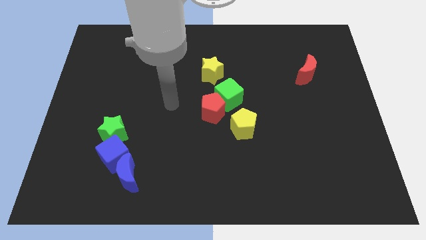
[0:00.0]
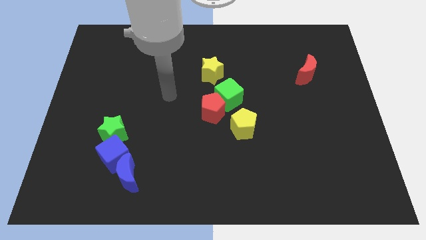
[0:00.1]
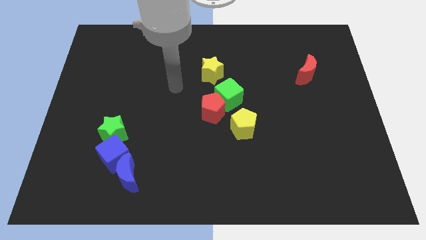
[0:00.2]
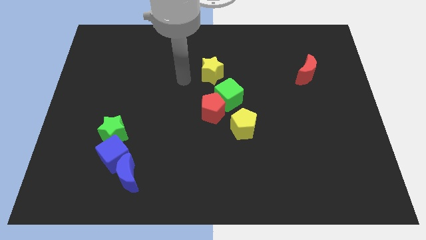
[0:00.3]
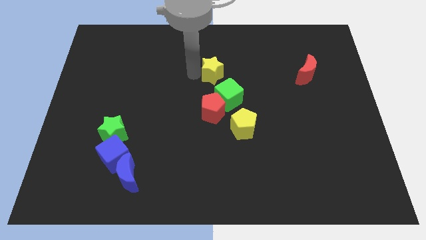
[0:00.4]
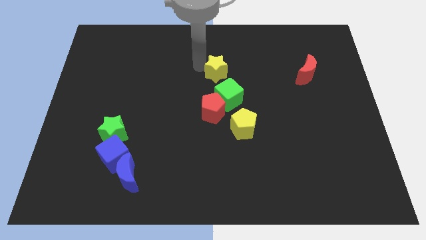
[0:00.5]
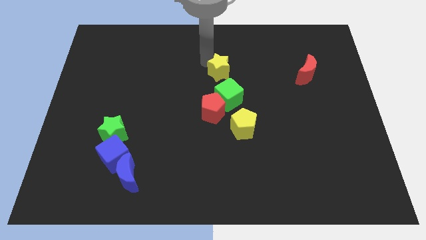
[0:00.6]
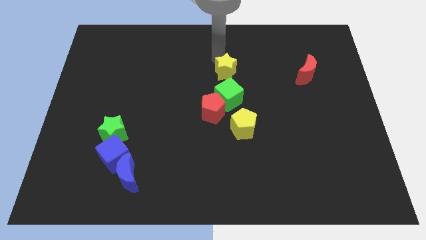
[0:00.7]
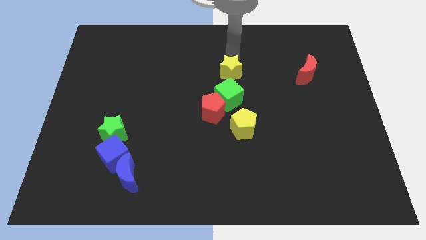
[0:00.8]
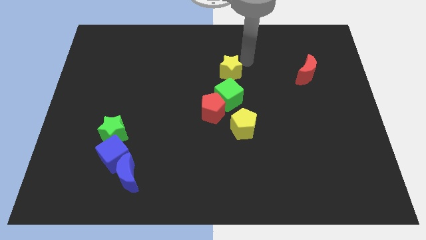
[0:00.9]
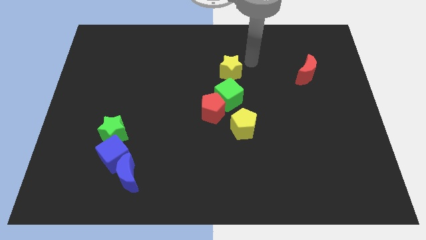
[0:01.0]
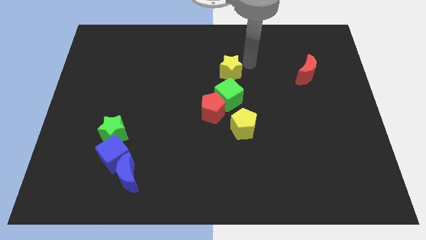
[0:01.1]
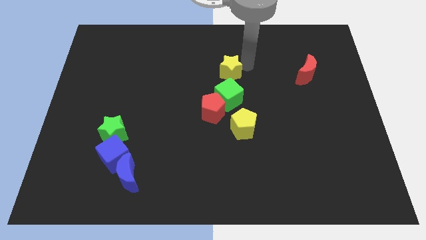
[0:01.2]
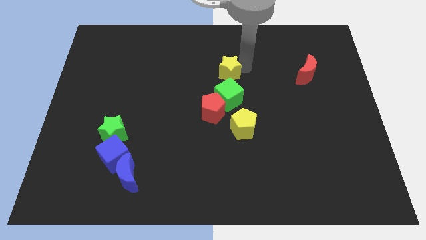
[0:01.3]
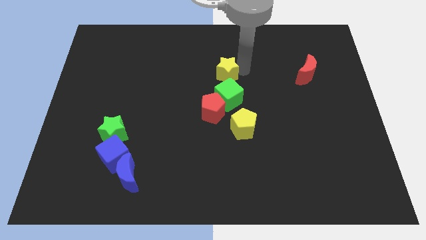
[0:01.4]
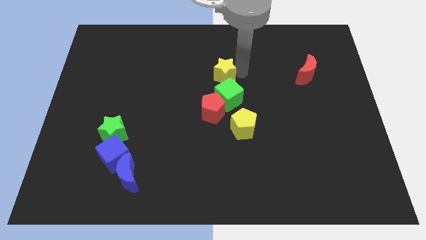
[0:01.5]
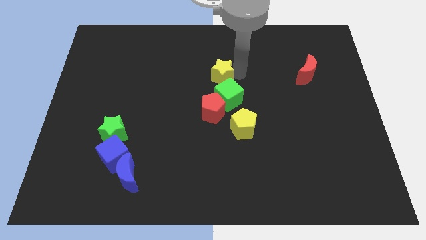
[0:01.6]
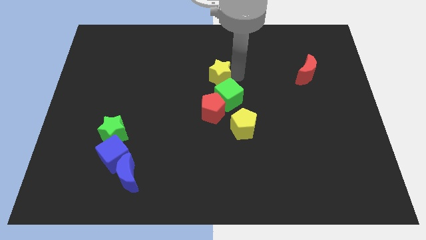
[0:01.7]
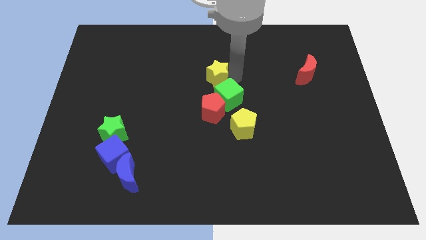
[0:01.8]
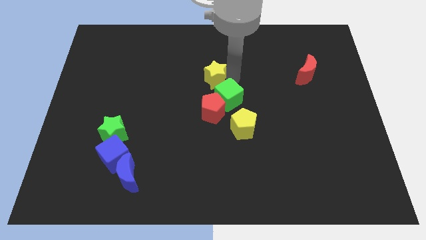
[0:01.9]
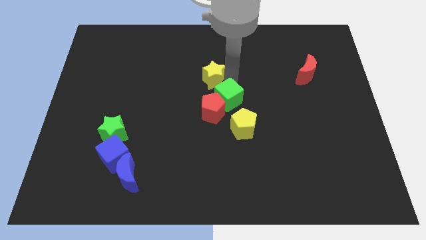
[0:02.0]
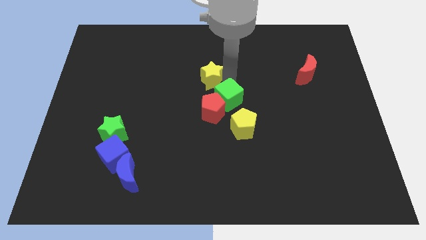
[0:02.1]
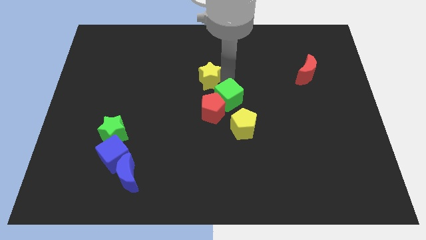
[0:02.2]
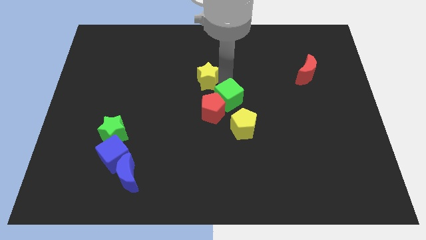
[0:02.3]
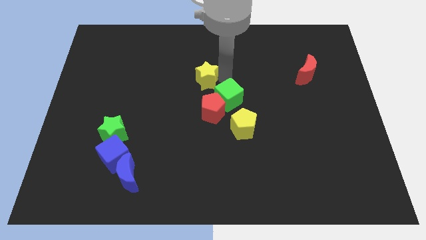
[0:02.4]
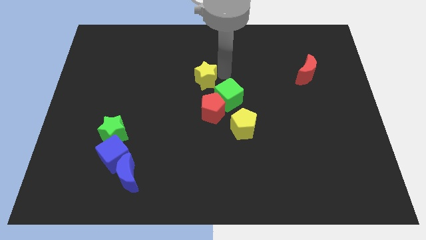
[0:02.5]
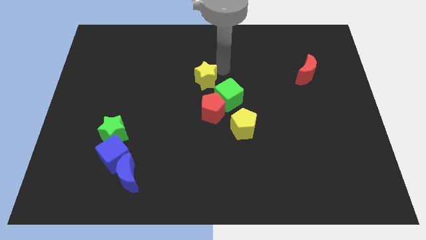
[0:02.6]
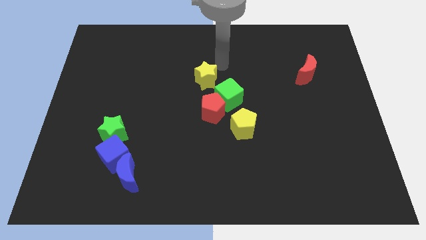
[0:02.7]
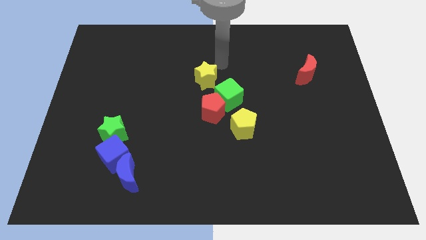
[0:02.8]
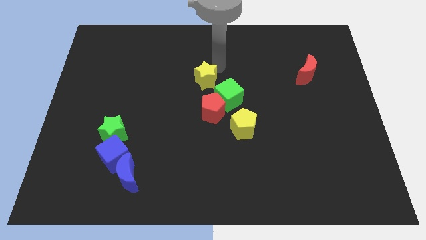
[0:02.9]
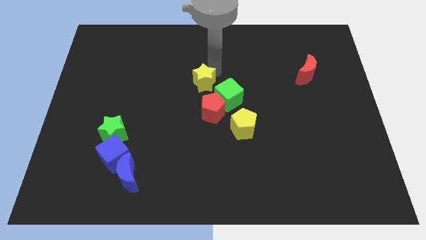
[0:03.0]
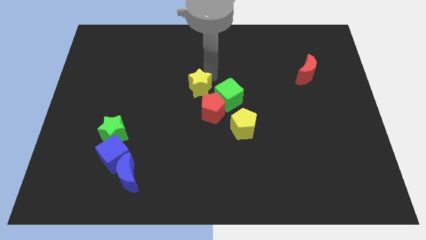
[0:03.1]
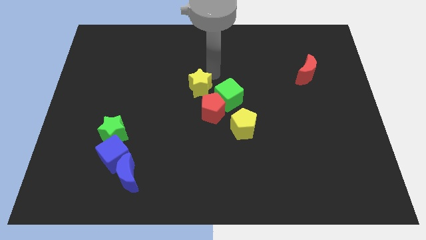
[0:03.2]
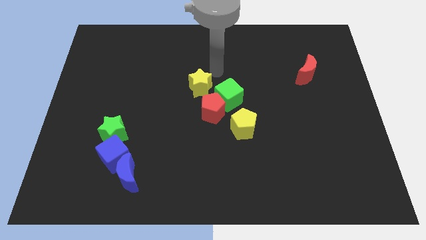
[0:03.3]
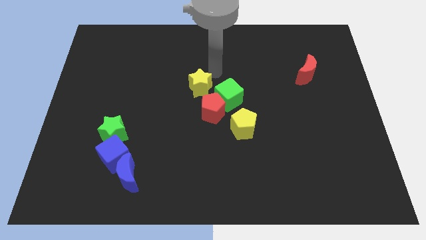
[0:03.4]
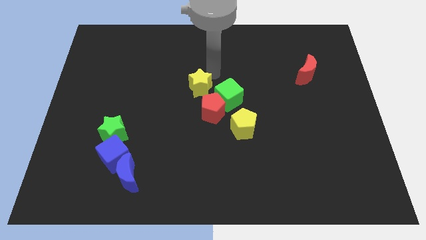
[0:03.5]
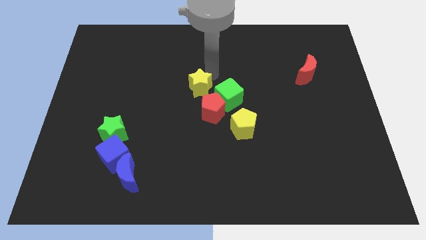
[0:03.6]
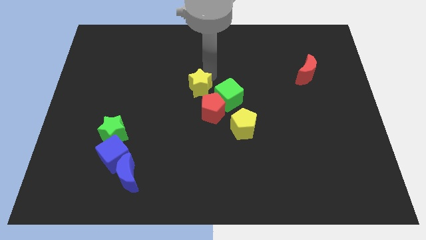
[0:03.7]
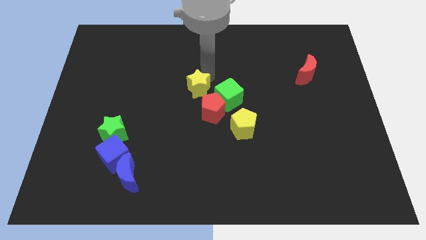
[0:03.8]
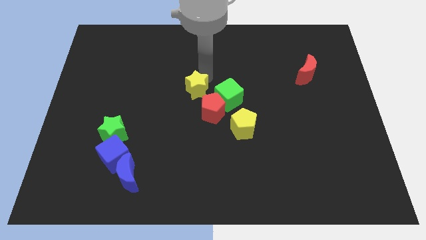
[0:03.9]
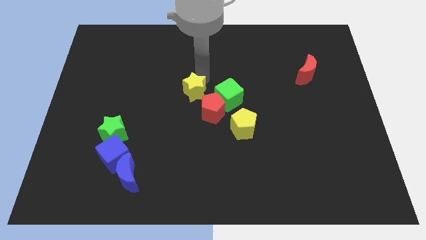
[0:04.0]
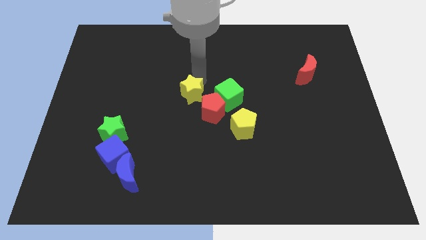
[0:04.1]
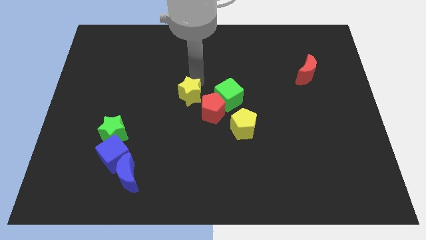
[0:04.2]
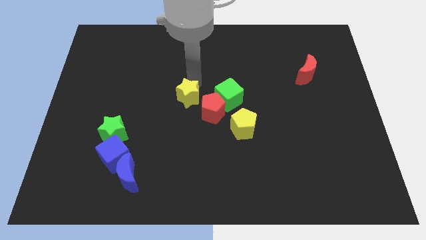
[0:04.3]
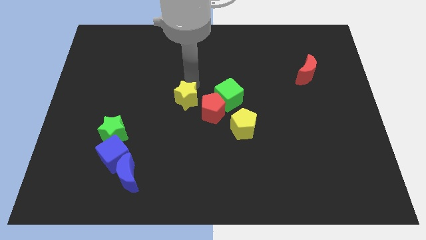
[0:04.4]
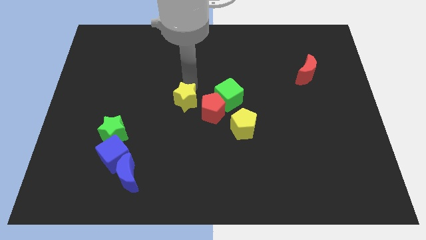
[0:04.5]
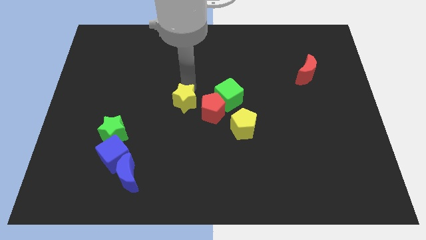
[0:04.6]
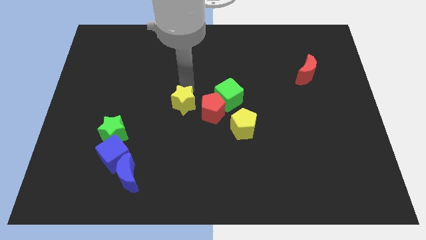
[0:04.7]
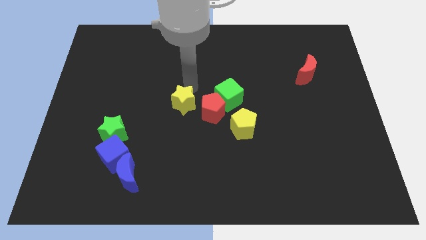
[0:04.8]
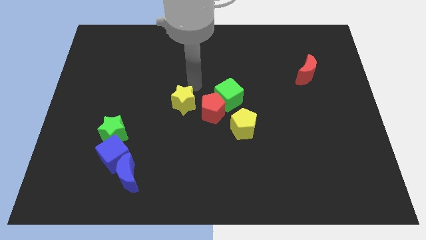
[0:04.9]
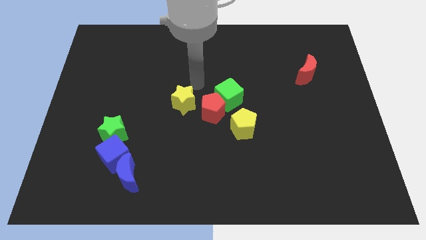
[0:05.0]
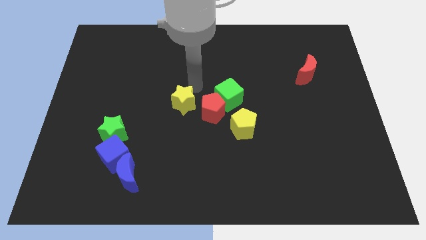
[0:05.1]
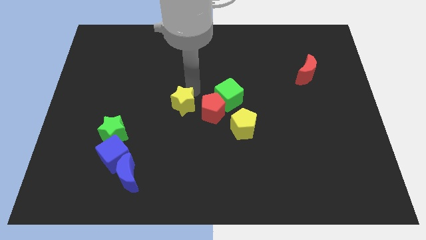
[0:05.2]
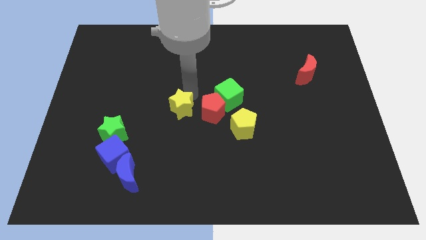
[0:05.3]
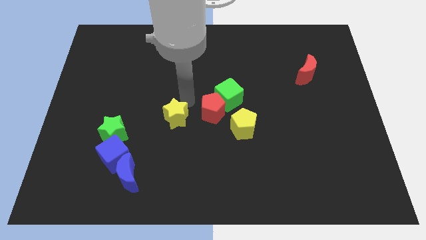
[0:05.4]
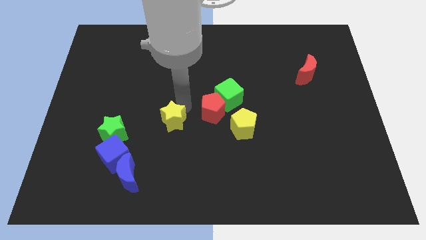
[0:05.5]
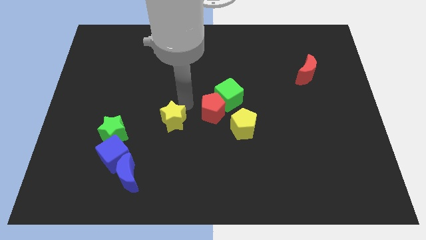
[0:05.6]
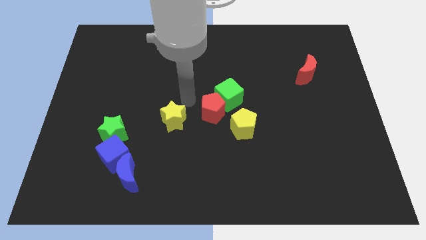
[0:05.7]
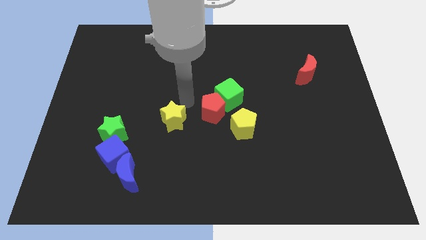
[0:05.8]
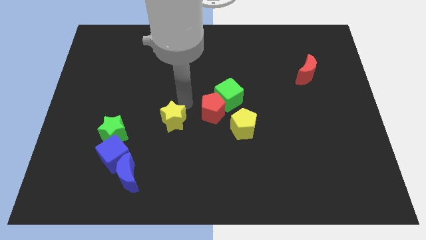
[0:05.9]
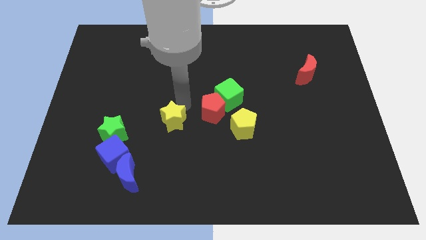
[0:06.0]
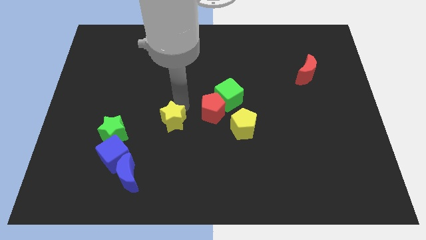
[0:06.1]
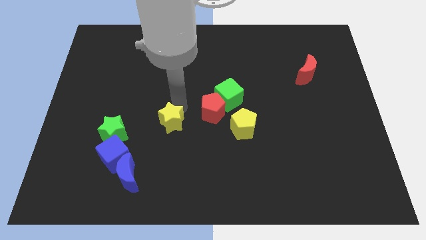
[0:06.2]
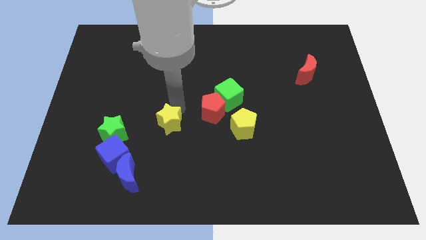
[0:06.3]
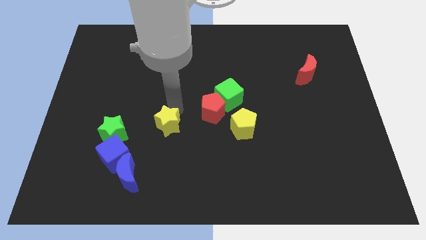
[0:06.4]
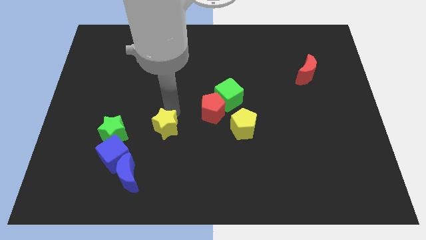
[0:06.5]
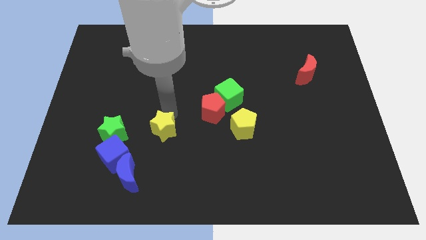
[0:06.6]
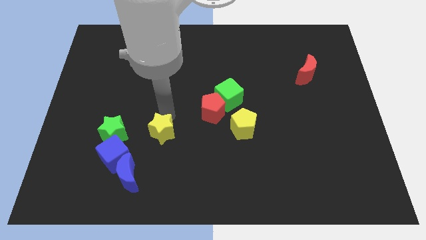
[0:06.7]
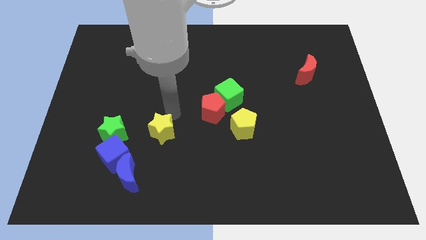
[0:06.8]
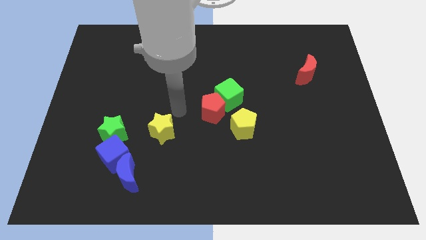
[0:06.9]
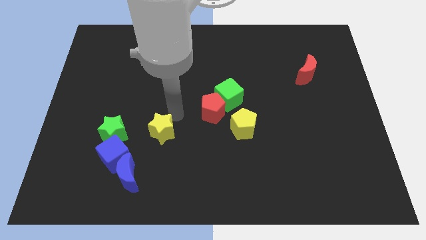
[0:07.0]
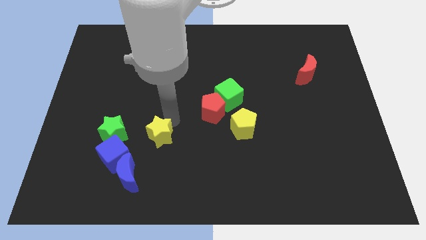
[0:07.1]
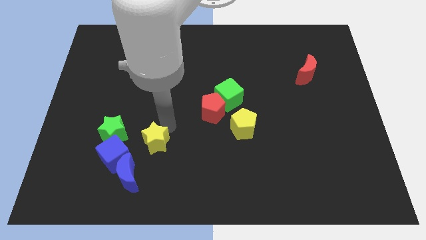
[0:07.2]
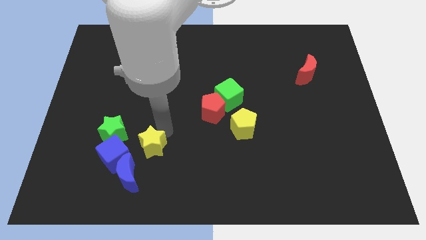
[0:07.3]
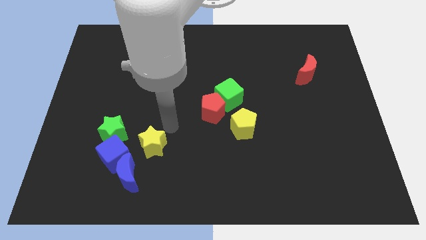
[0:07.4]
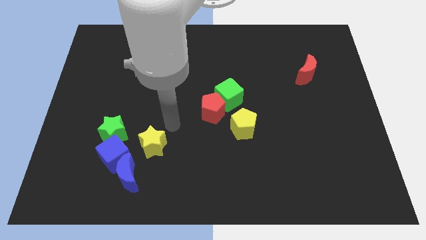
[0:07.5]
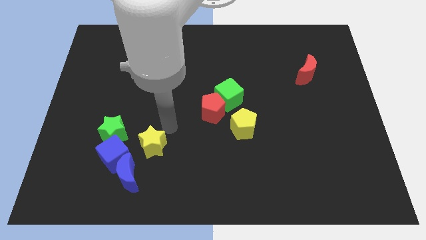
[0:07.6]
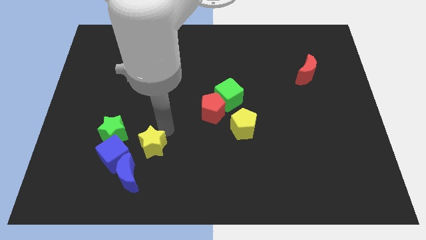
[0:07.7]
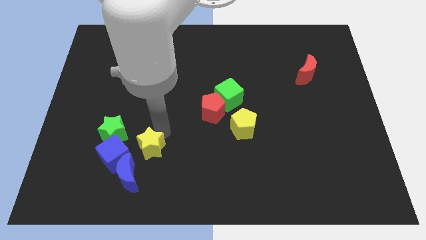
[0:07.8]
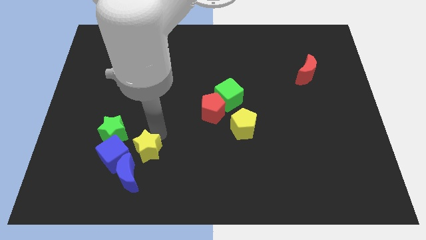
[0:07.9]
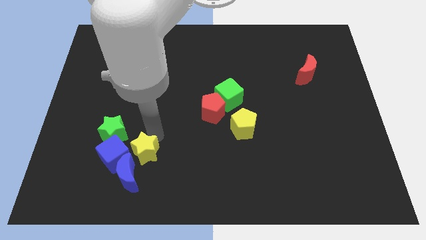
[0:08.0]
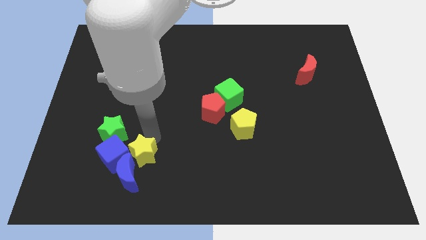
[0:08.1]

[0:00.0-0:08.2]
push the yellow star to the blue moon
